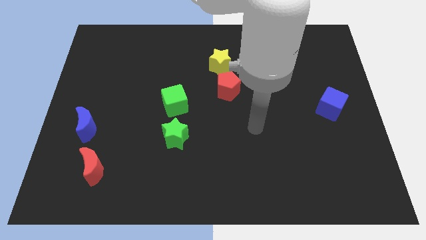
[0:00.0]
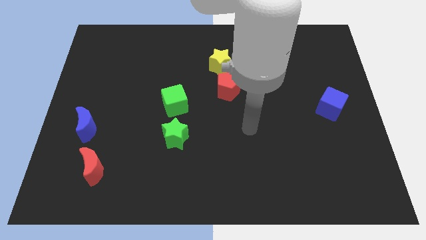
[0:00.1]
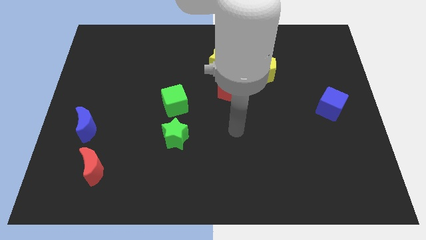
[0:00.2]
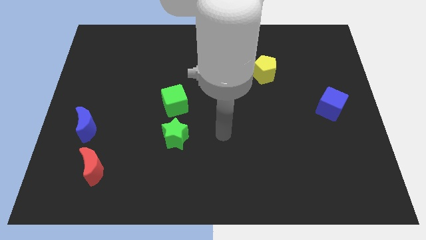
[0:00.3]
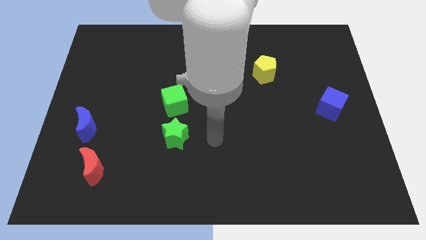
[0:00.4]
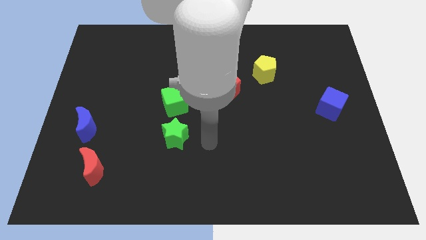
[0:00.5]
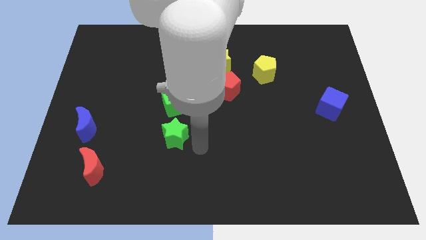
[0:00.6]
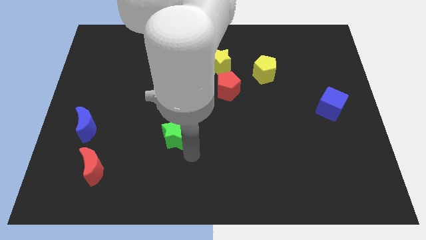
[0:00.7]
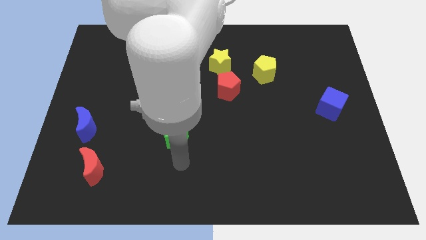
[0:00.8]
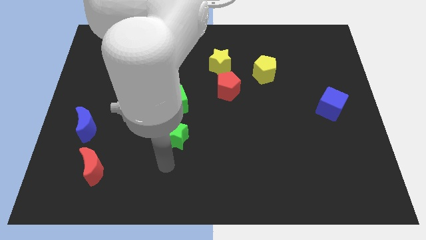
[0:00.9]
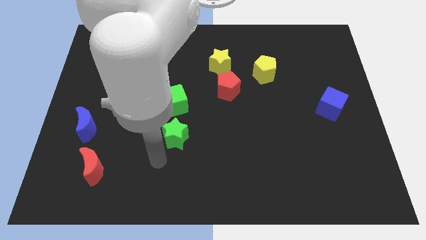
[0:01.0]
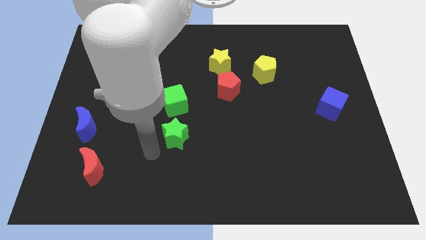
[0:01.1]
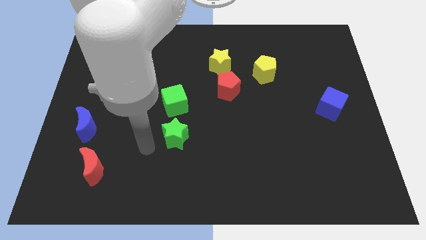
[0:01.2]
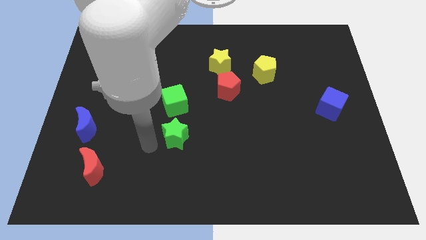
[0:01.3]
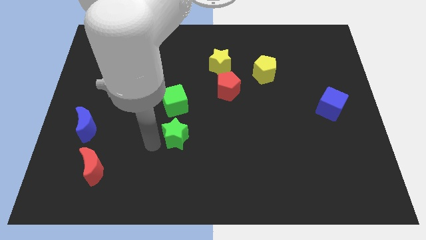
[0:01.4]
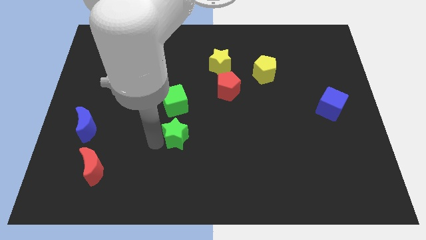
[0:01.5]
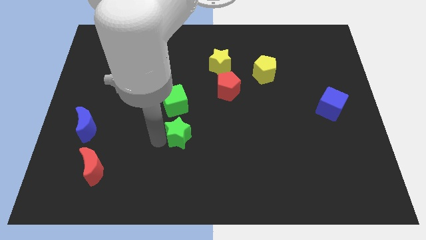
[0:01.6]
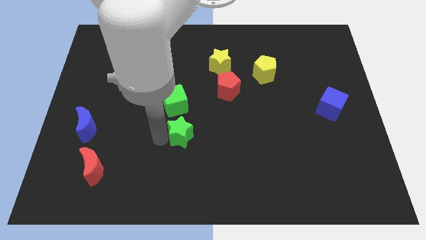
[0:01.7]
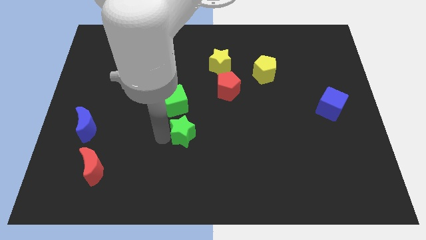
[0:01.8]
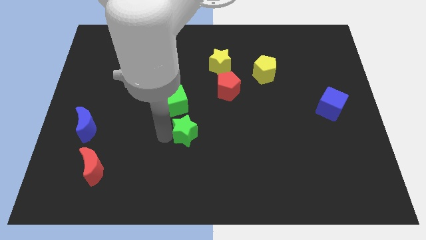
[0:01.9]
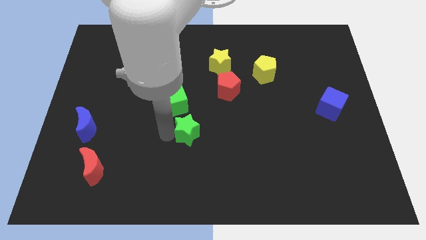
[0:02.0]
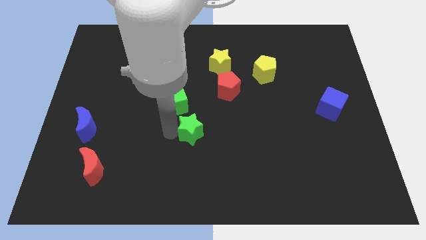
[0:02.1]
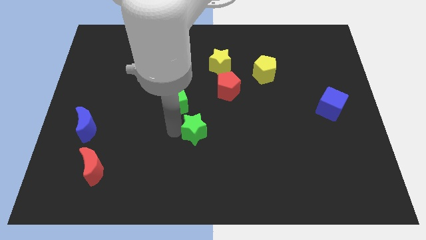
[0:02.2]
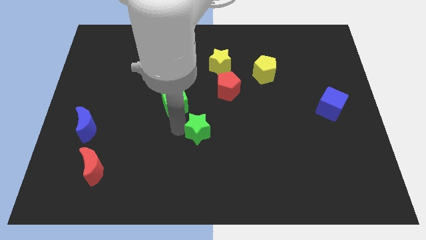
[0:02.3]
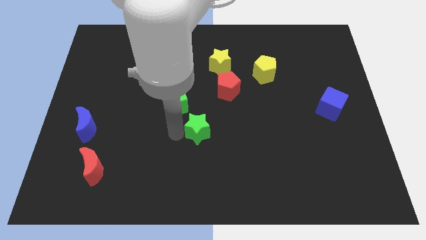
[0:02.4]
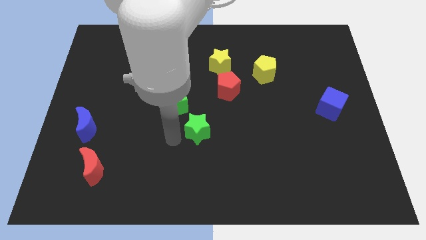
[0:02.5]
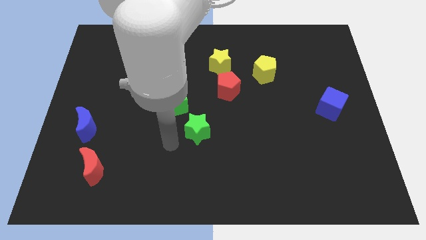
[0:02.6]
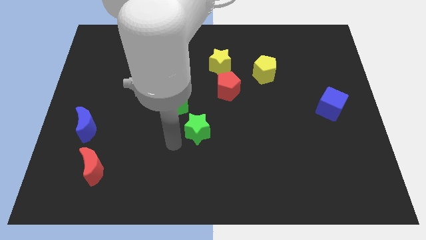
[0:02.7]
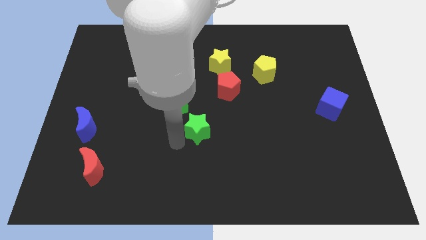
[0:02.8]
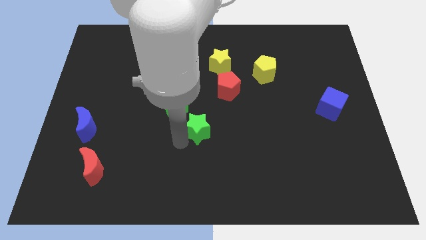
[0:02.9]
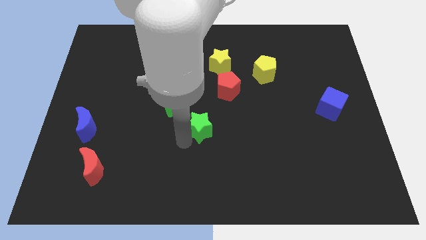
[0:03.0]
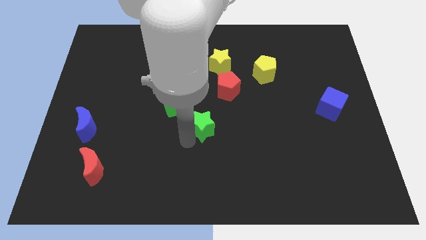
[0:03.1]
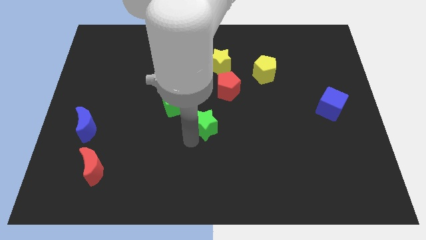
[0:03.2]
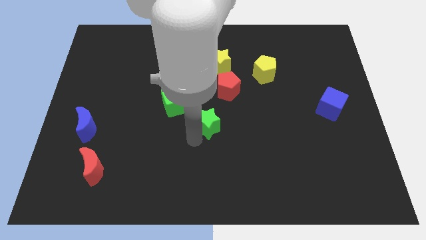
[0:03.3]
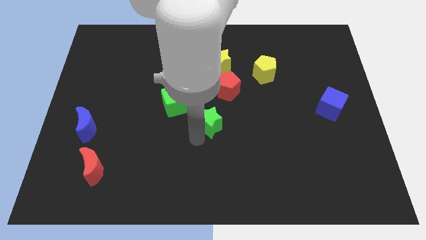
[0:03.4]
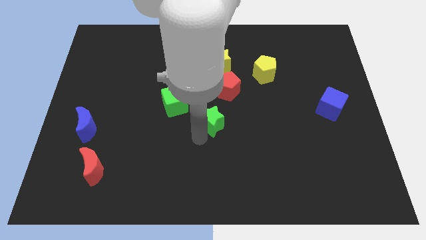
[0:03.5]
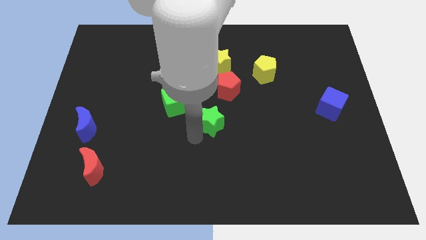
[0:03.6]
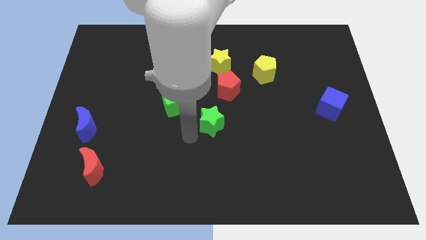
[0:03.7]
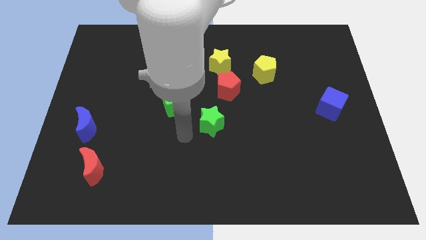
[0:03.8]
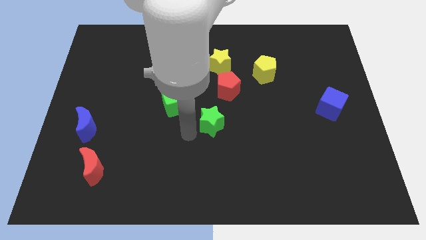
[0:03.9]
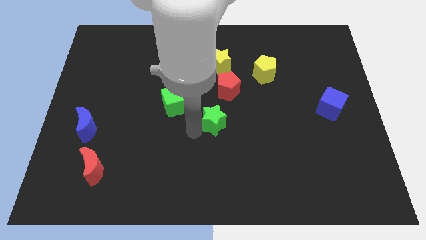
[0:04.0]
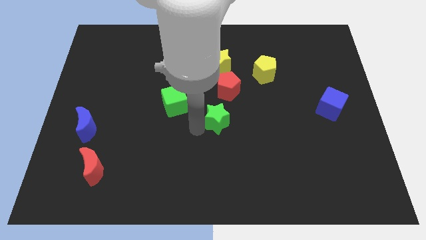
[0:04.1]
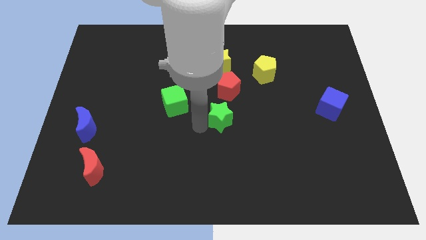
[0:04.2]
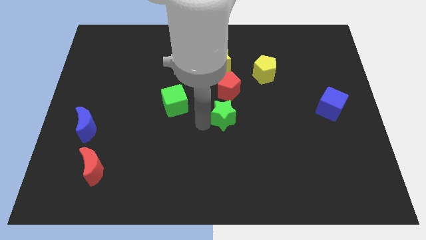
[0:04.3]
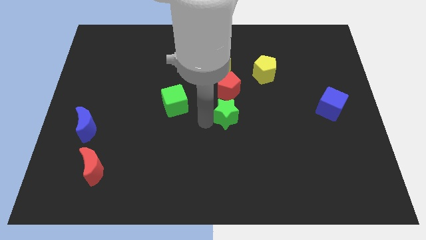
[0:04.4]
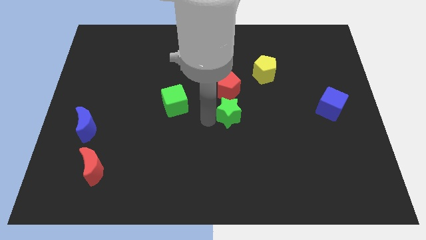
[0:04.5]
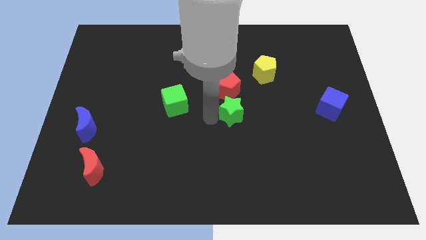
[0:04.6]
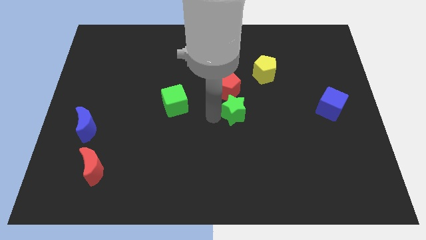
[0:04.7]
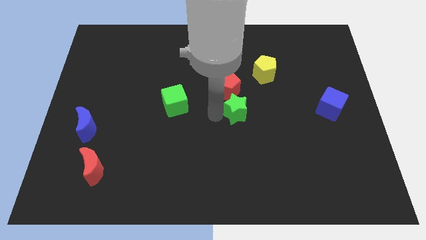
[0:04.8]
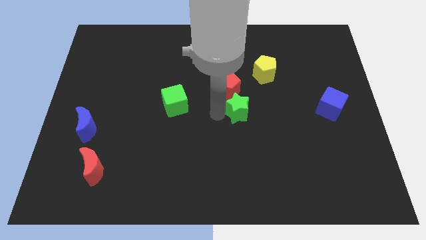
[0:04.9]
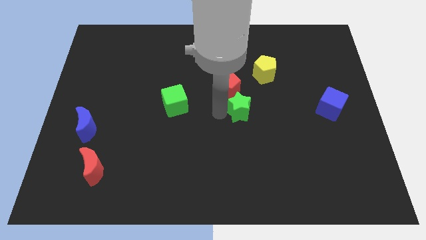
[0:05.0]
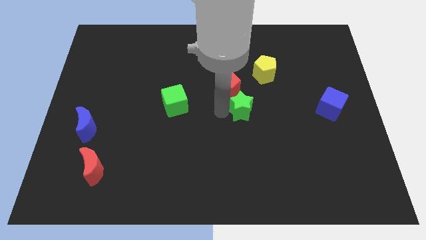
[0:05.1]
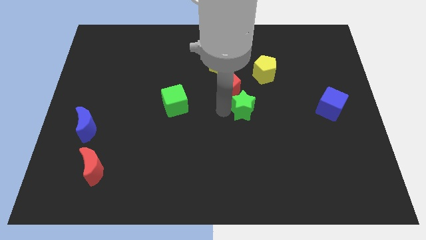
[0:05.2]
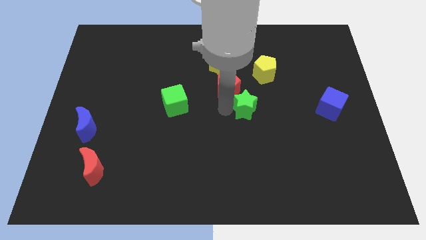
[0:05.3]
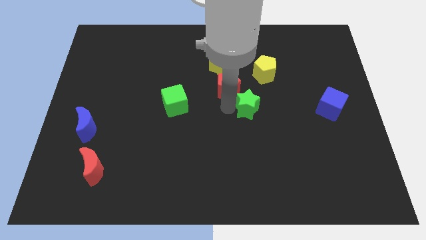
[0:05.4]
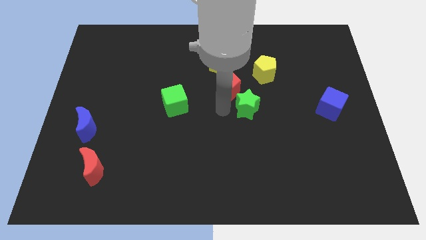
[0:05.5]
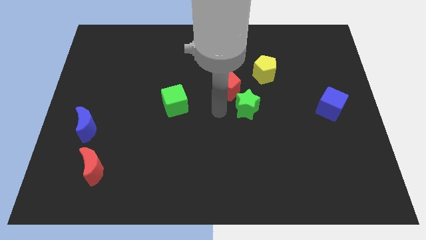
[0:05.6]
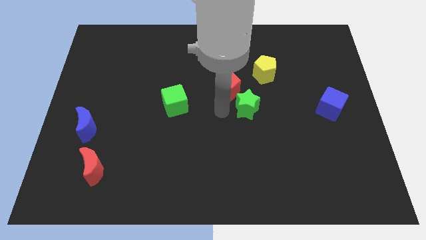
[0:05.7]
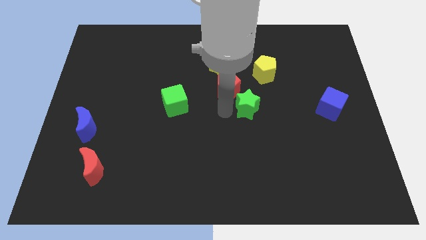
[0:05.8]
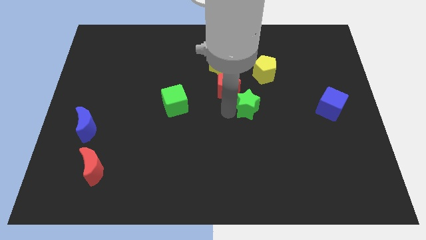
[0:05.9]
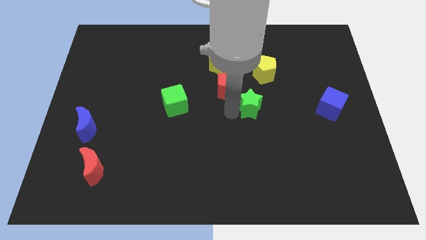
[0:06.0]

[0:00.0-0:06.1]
push the green star below the yellow pentagon

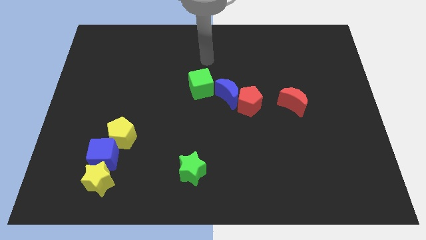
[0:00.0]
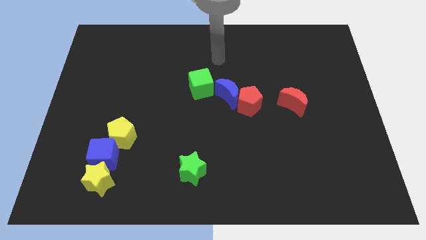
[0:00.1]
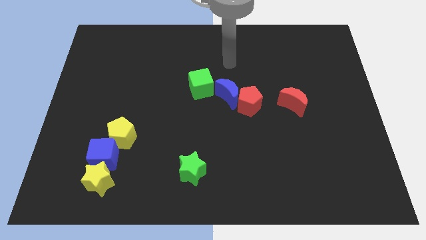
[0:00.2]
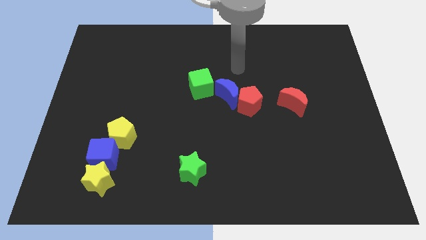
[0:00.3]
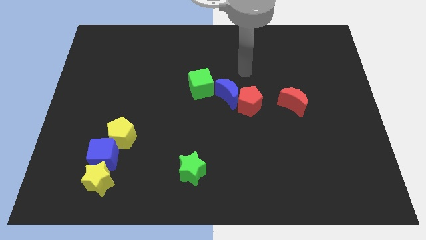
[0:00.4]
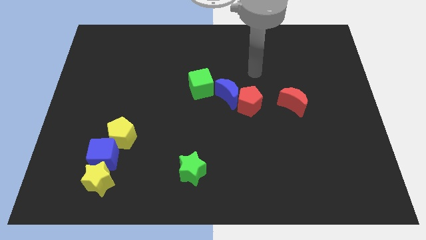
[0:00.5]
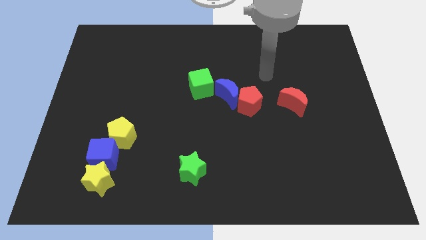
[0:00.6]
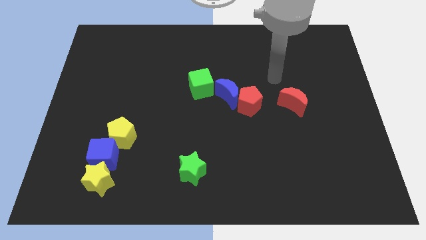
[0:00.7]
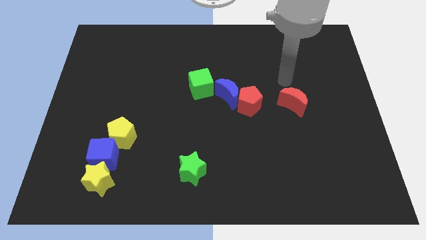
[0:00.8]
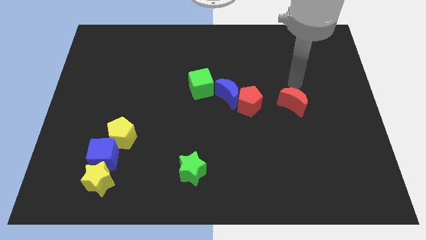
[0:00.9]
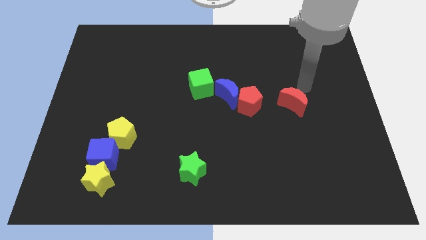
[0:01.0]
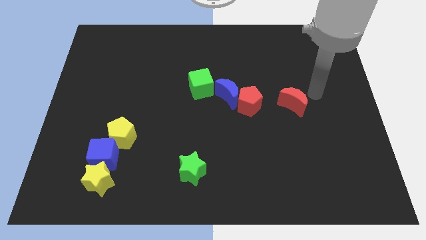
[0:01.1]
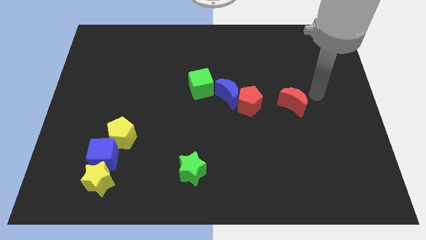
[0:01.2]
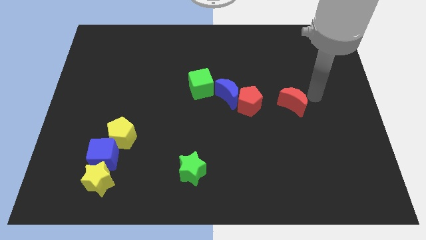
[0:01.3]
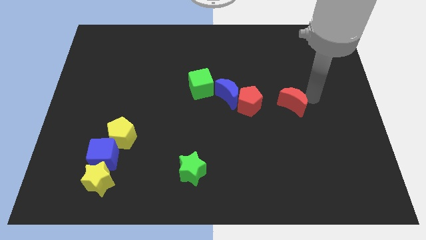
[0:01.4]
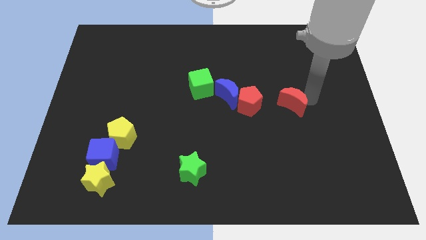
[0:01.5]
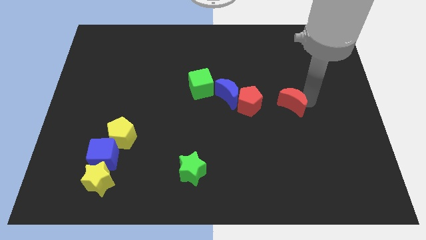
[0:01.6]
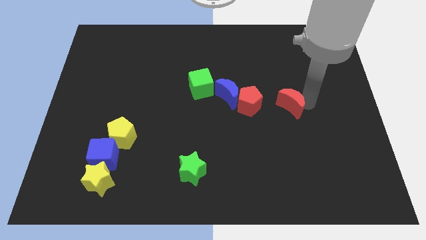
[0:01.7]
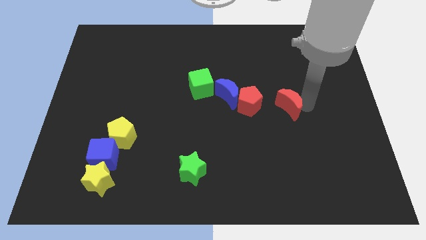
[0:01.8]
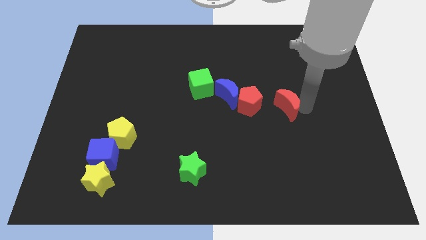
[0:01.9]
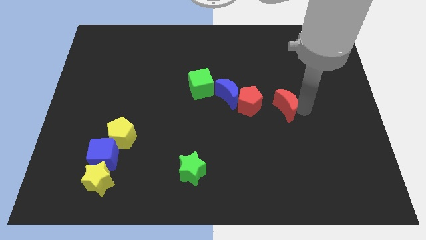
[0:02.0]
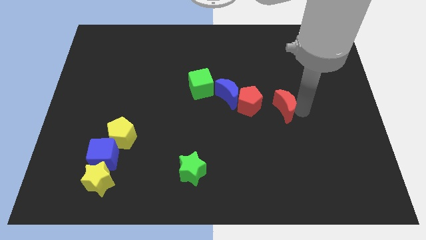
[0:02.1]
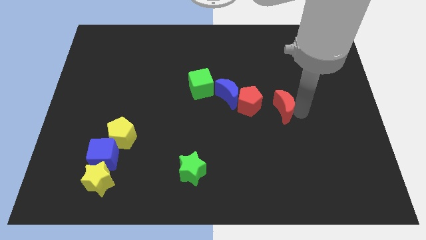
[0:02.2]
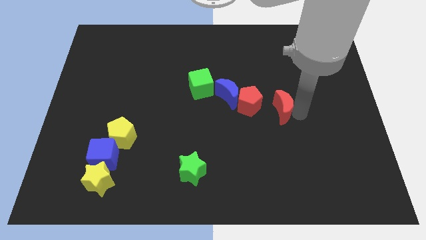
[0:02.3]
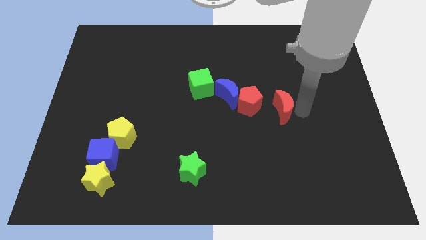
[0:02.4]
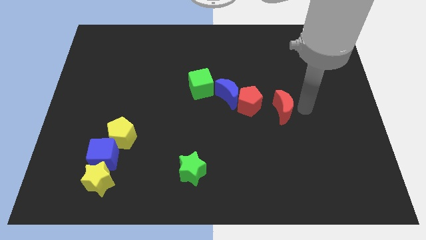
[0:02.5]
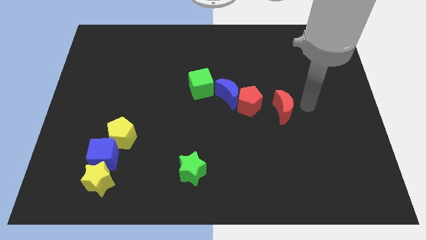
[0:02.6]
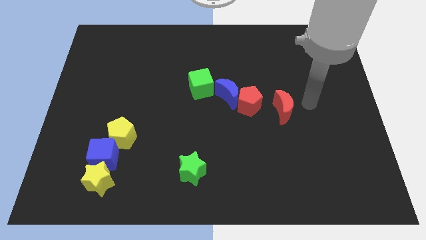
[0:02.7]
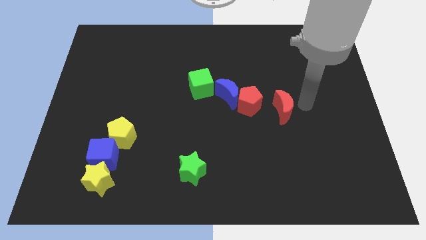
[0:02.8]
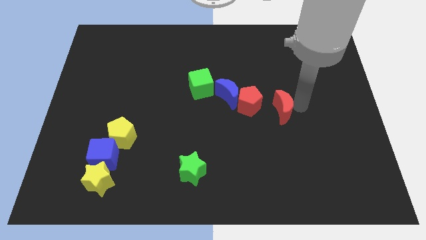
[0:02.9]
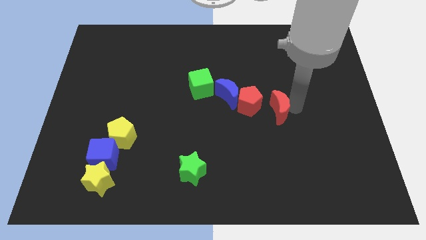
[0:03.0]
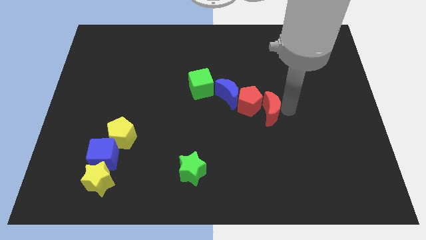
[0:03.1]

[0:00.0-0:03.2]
move the red moon to the bottom right side of the blue moon
